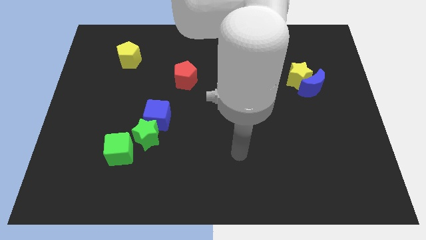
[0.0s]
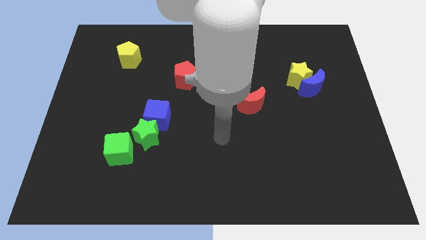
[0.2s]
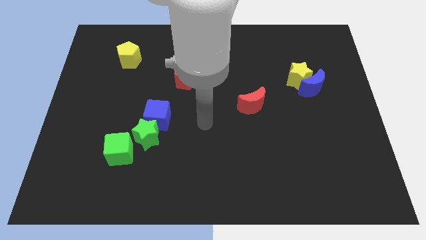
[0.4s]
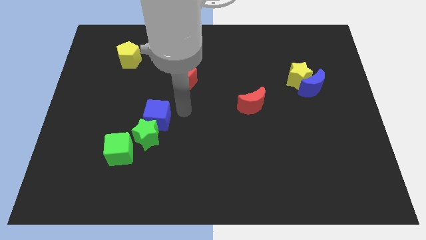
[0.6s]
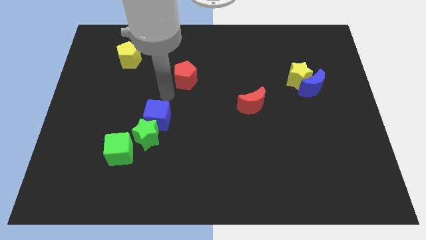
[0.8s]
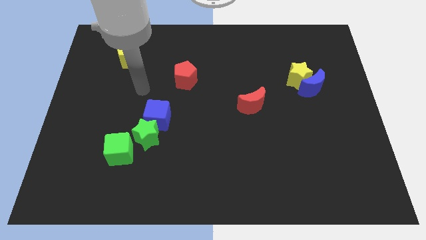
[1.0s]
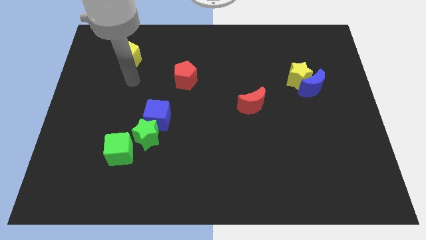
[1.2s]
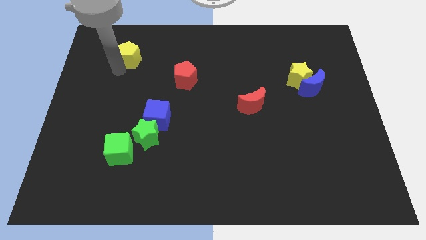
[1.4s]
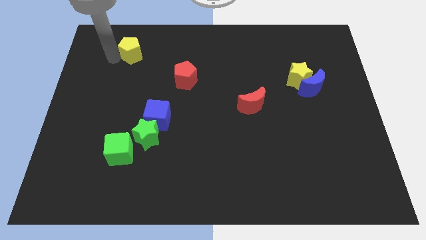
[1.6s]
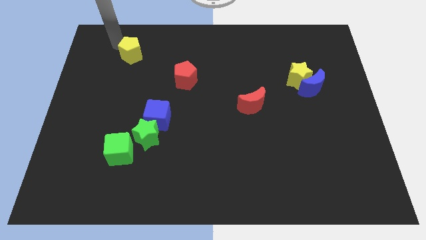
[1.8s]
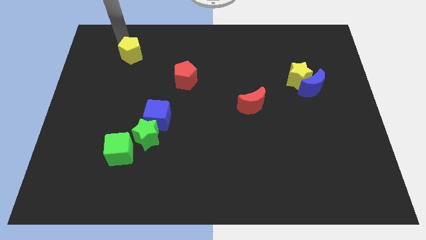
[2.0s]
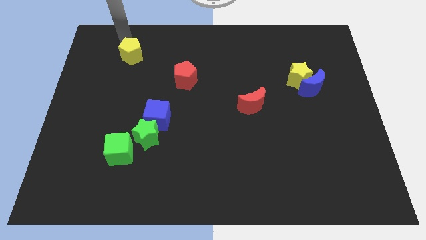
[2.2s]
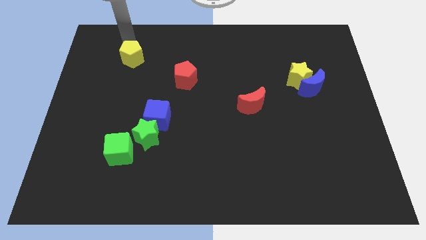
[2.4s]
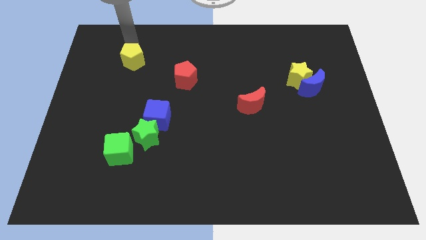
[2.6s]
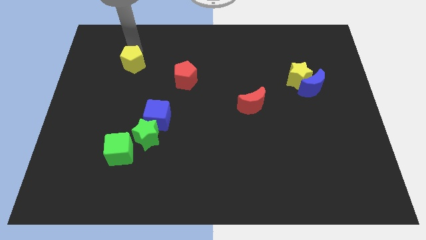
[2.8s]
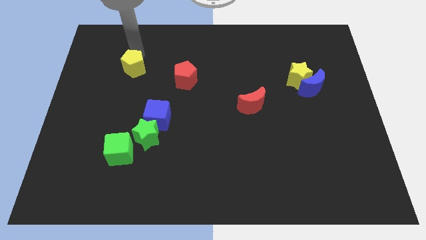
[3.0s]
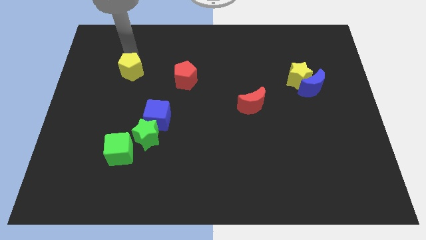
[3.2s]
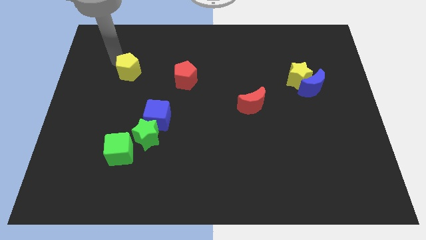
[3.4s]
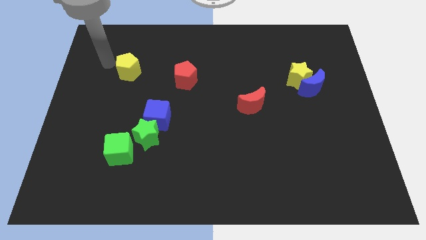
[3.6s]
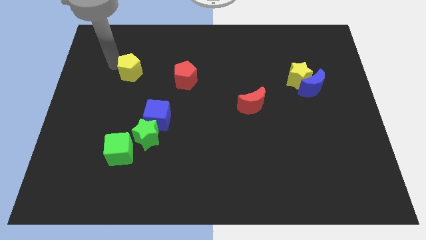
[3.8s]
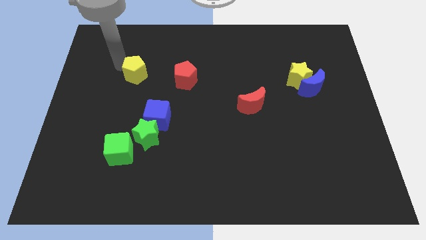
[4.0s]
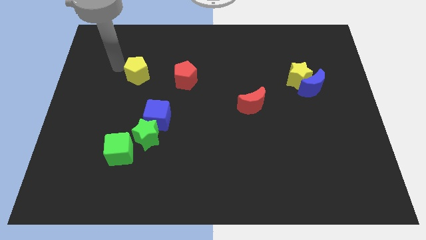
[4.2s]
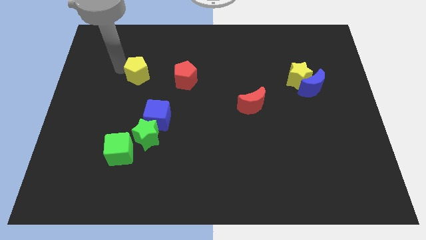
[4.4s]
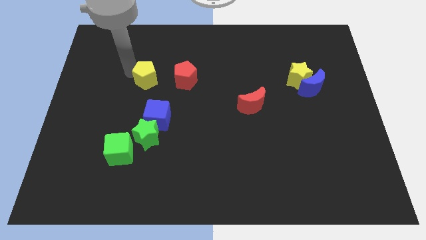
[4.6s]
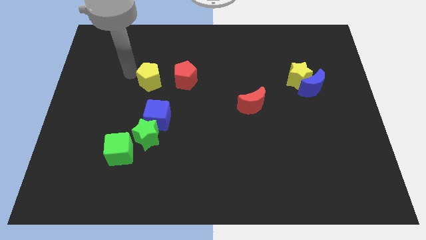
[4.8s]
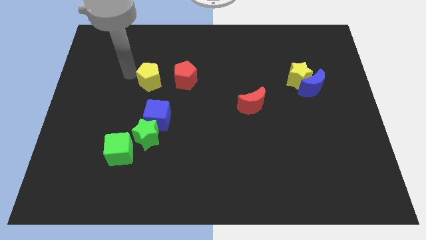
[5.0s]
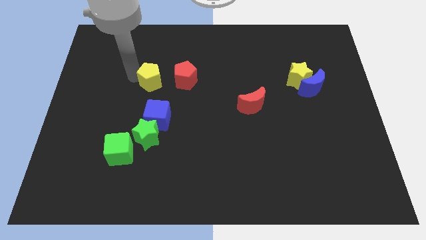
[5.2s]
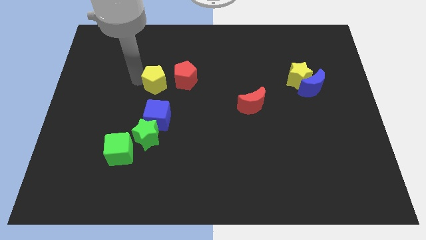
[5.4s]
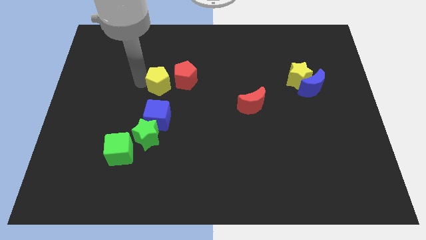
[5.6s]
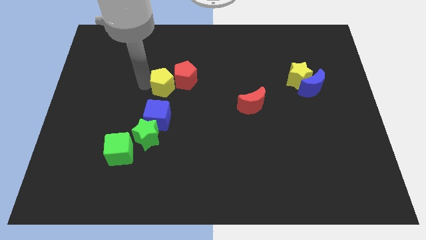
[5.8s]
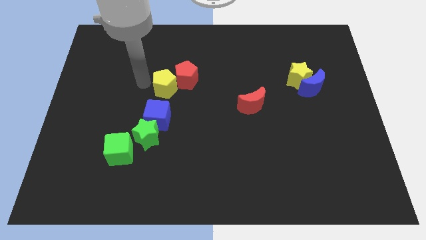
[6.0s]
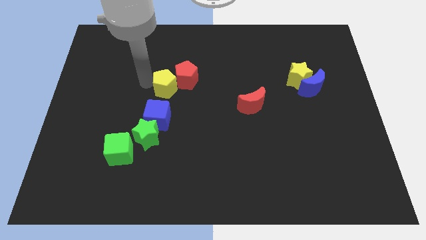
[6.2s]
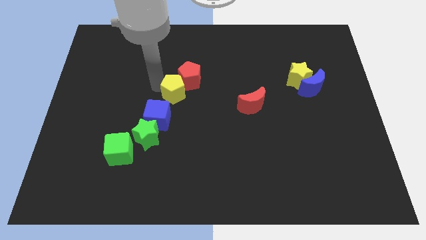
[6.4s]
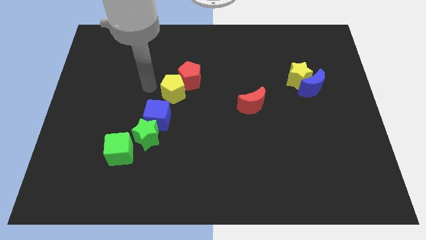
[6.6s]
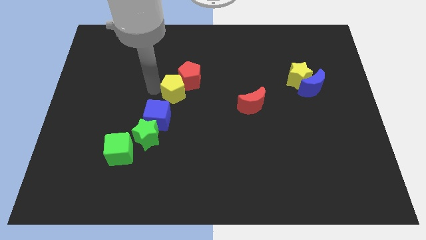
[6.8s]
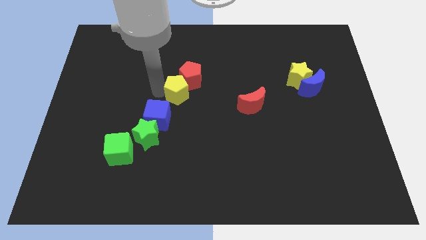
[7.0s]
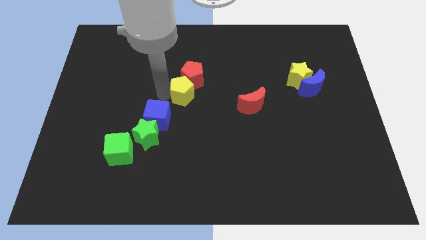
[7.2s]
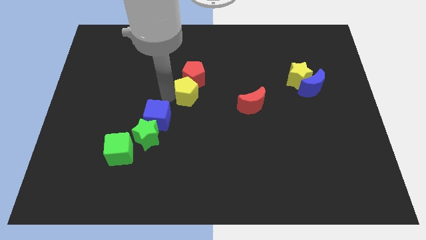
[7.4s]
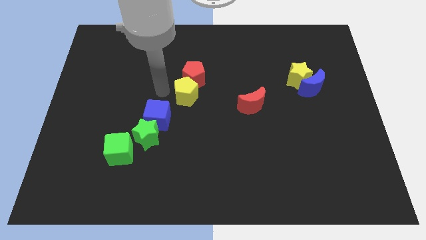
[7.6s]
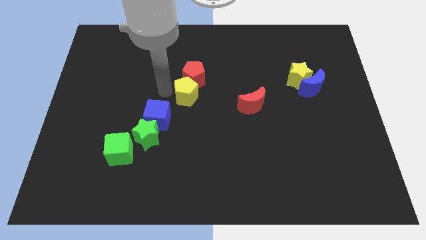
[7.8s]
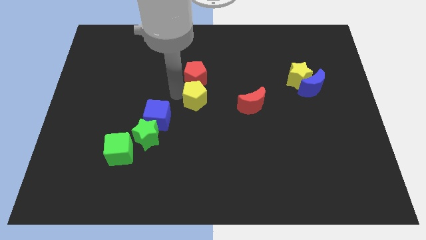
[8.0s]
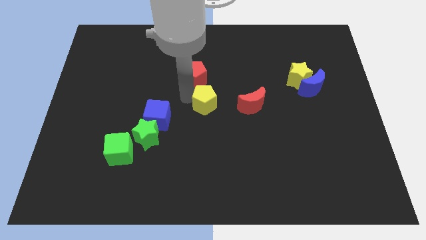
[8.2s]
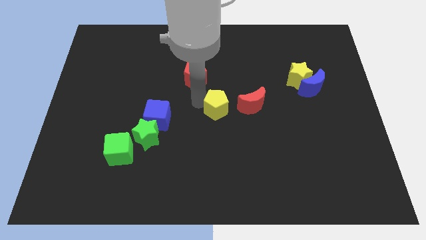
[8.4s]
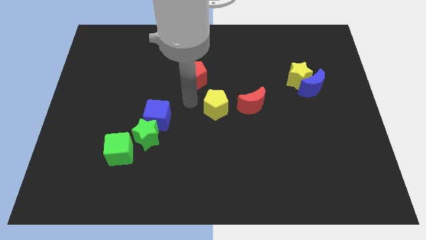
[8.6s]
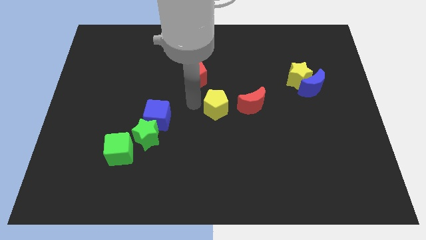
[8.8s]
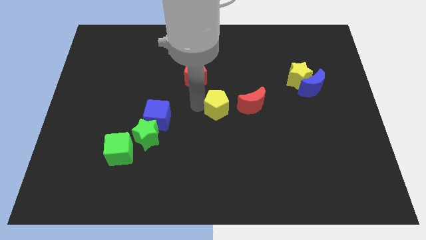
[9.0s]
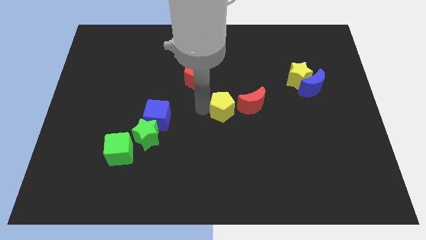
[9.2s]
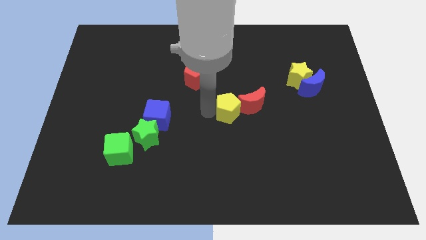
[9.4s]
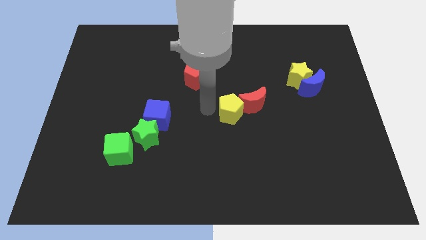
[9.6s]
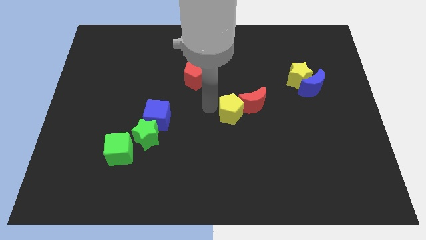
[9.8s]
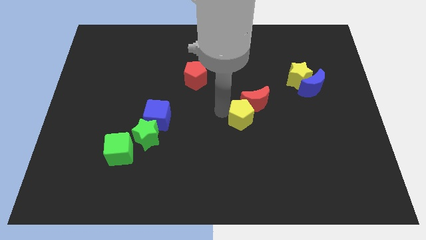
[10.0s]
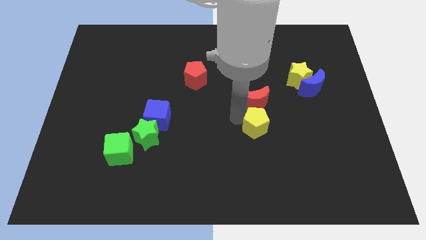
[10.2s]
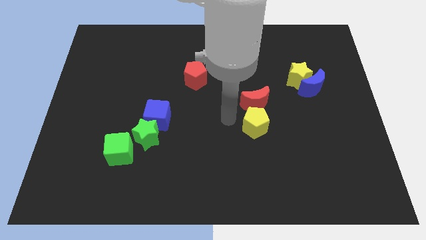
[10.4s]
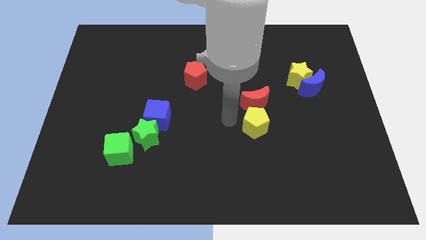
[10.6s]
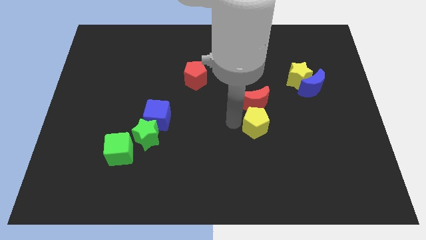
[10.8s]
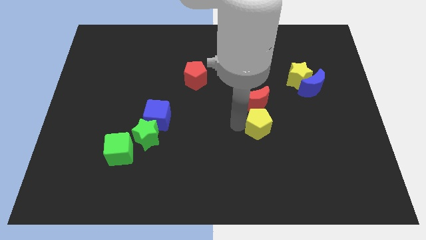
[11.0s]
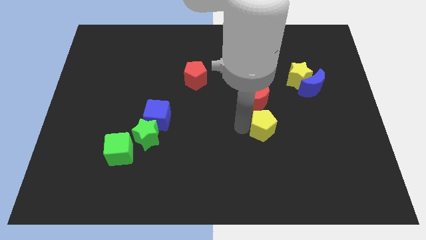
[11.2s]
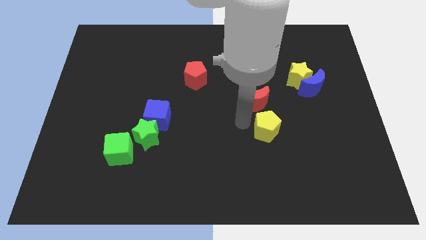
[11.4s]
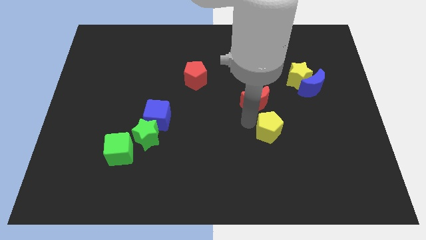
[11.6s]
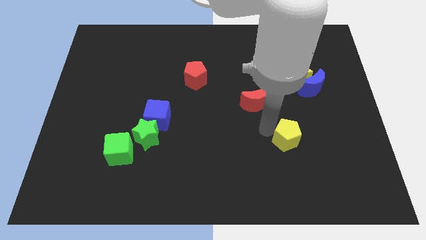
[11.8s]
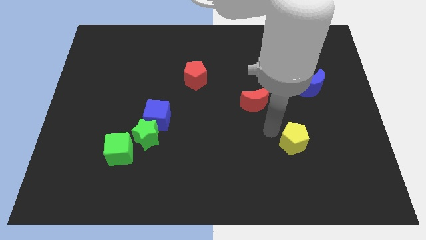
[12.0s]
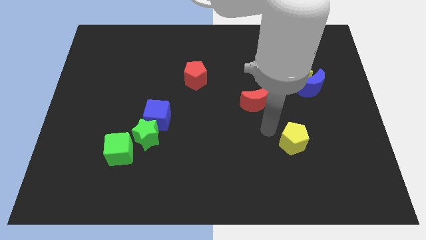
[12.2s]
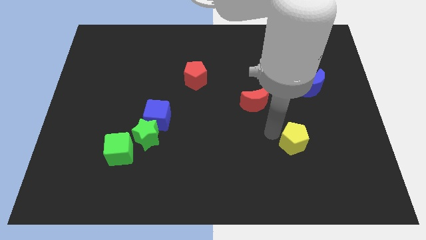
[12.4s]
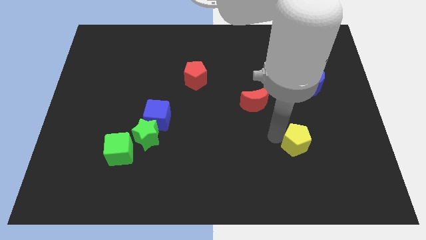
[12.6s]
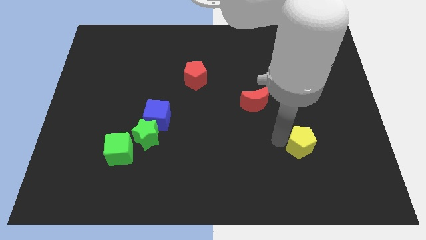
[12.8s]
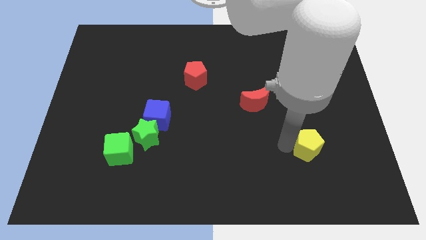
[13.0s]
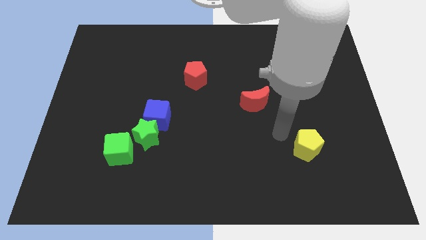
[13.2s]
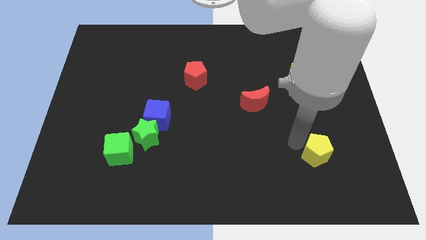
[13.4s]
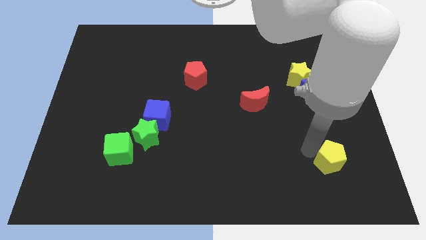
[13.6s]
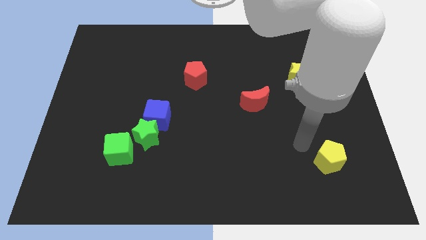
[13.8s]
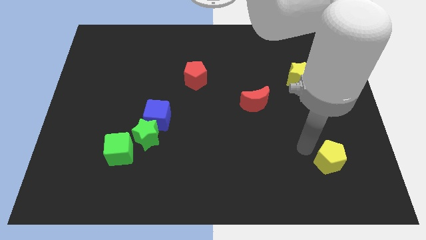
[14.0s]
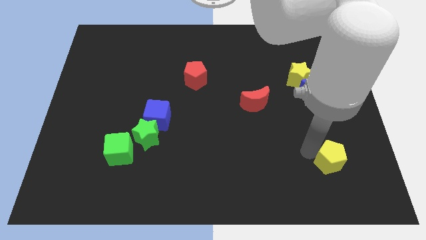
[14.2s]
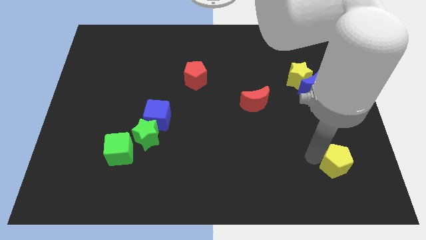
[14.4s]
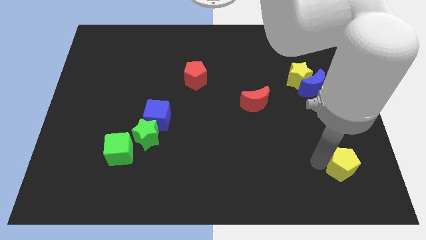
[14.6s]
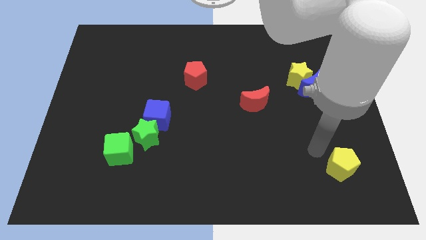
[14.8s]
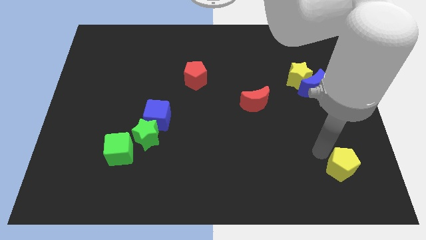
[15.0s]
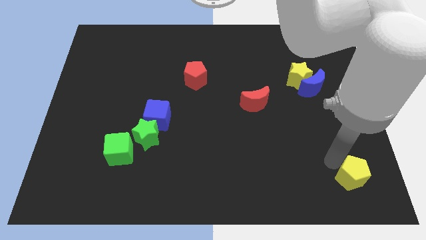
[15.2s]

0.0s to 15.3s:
put the yellow pentagon to the lower right corner
